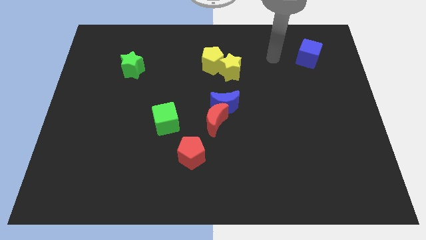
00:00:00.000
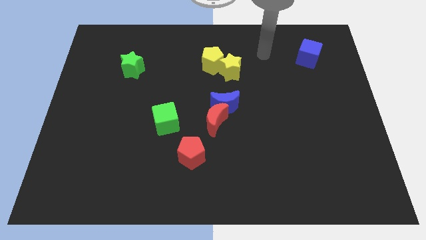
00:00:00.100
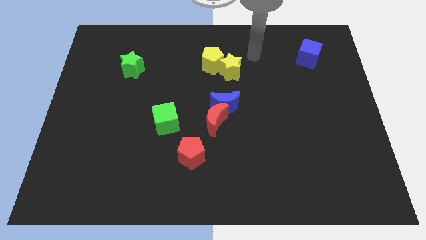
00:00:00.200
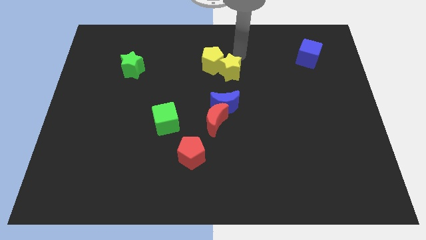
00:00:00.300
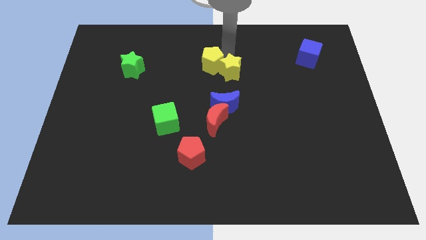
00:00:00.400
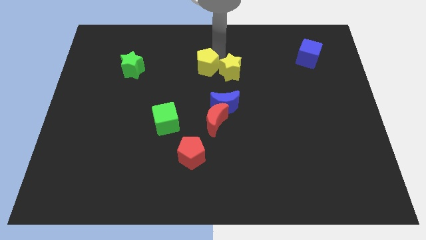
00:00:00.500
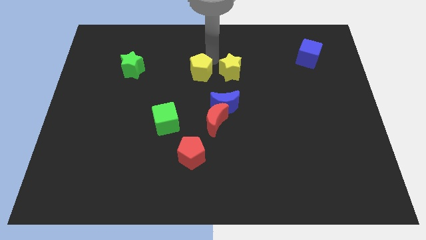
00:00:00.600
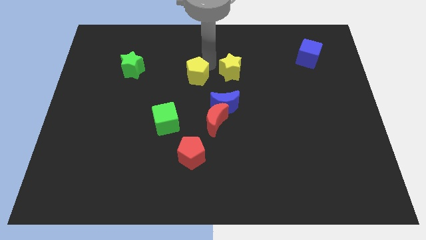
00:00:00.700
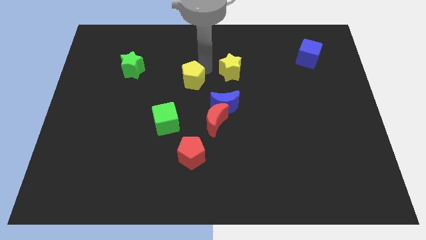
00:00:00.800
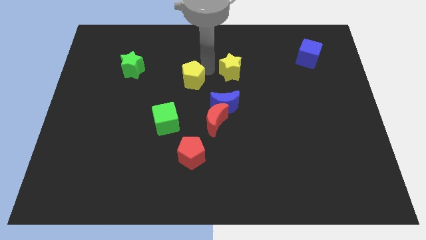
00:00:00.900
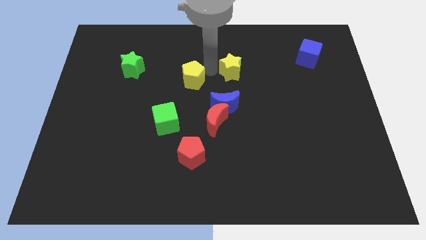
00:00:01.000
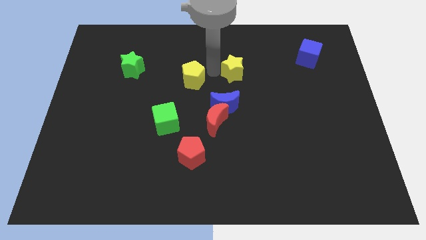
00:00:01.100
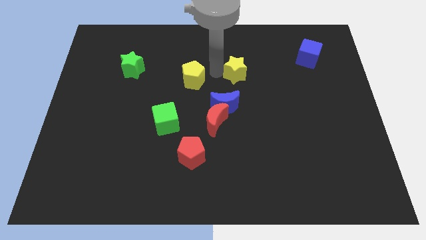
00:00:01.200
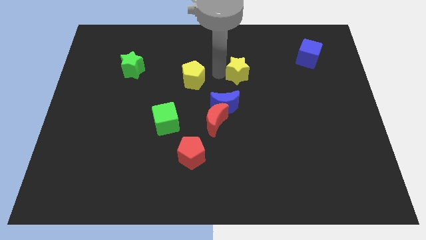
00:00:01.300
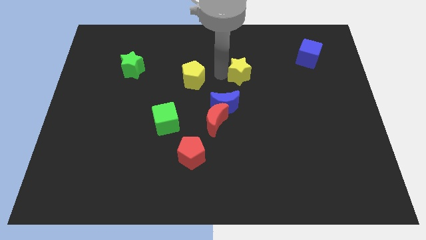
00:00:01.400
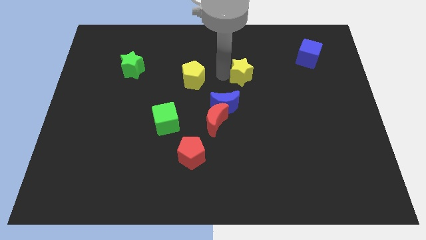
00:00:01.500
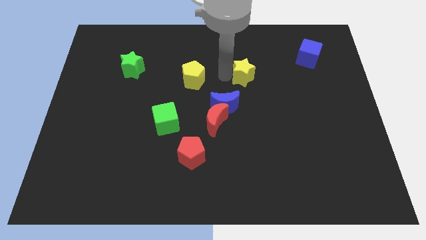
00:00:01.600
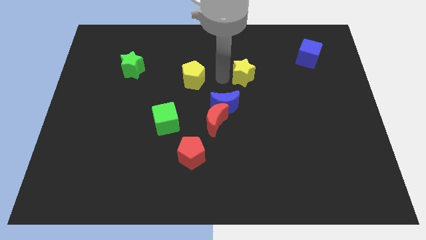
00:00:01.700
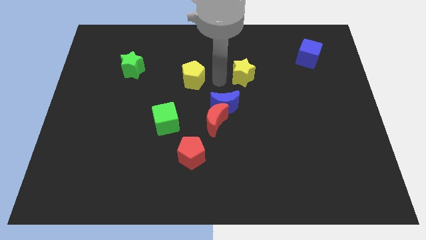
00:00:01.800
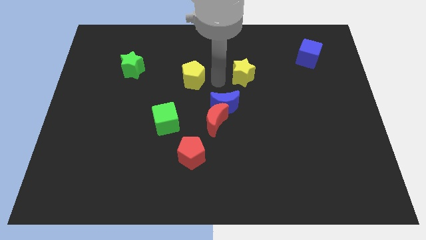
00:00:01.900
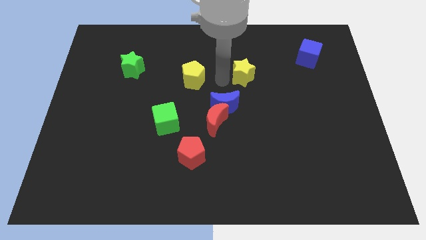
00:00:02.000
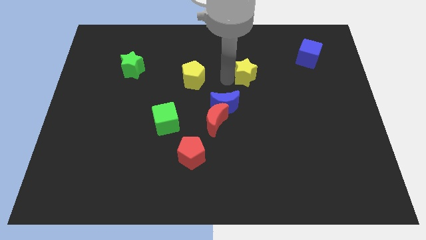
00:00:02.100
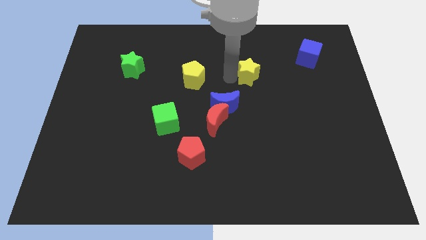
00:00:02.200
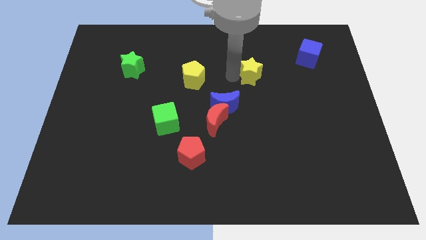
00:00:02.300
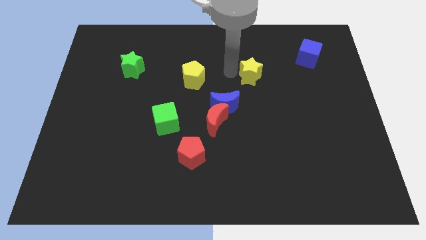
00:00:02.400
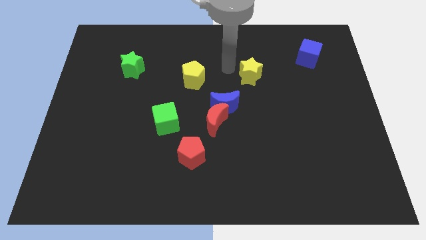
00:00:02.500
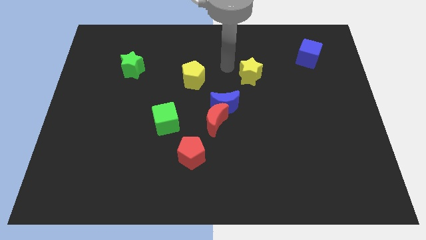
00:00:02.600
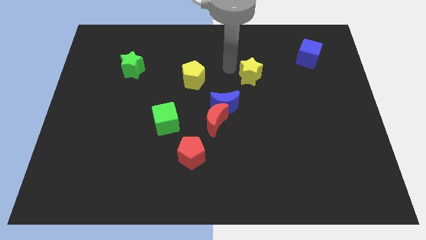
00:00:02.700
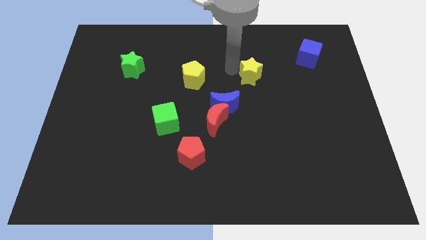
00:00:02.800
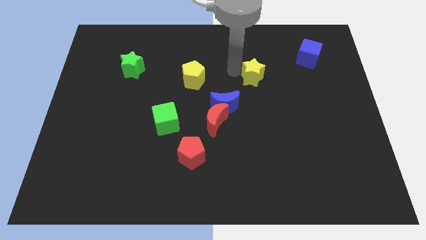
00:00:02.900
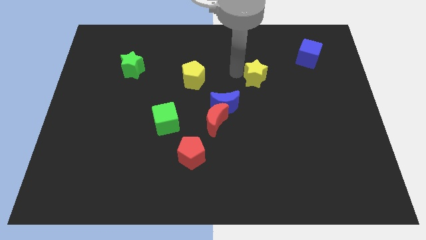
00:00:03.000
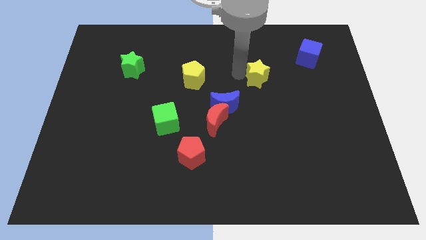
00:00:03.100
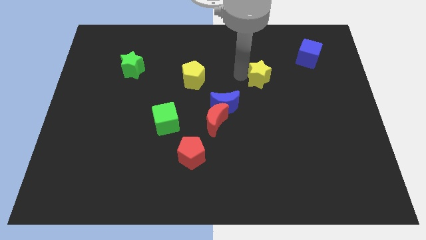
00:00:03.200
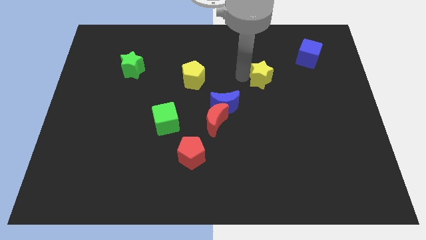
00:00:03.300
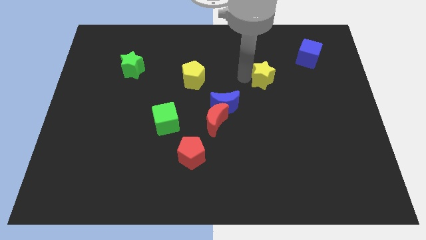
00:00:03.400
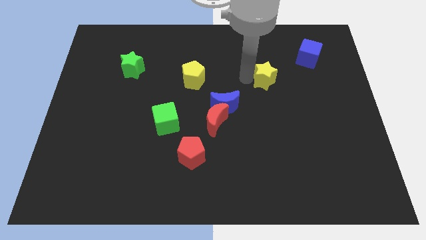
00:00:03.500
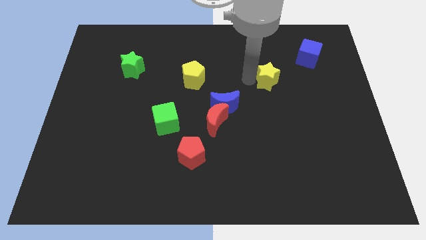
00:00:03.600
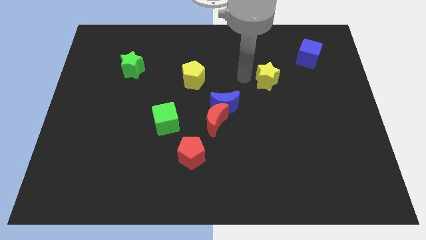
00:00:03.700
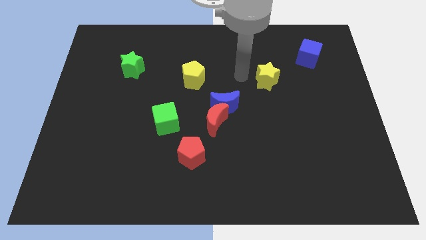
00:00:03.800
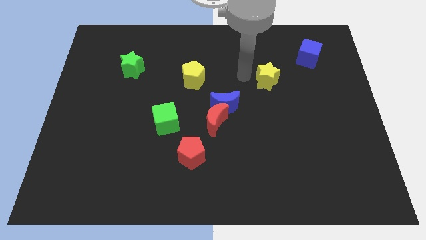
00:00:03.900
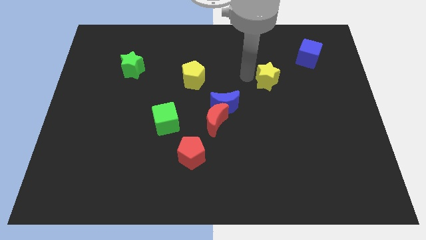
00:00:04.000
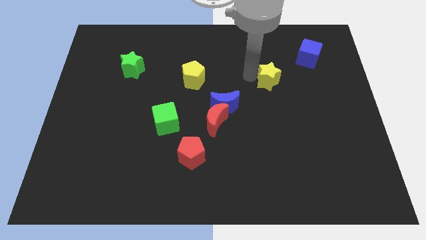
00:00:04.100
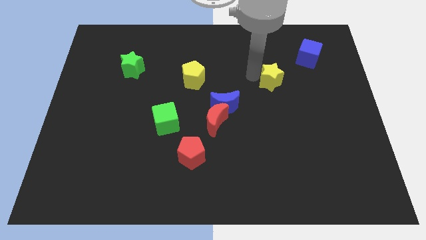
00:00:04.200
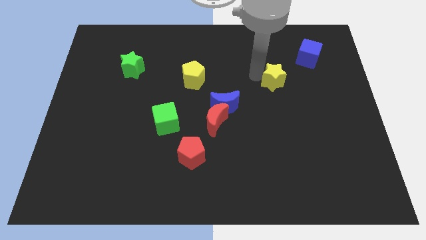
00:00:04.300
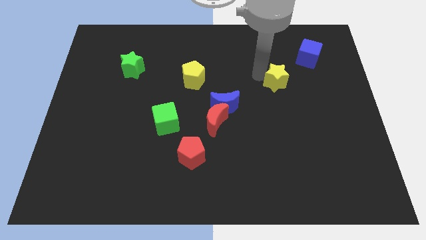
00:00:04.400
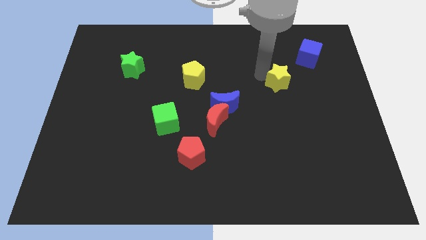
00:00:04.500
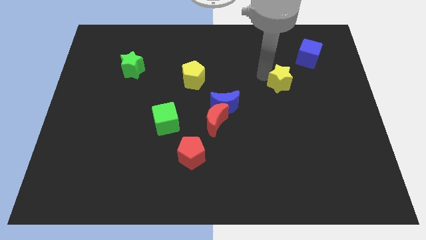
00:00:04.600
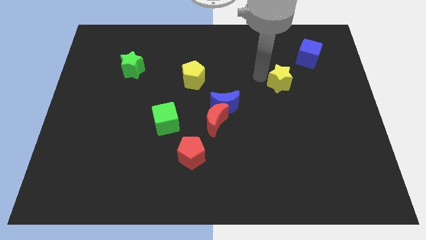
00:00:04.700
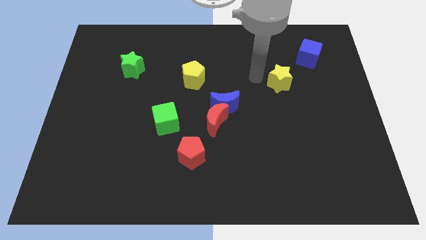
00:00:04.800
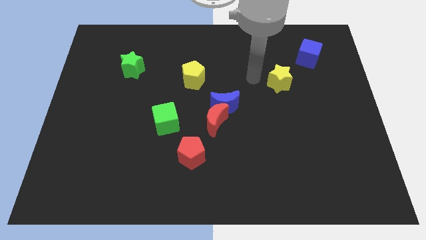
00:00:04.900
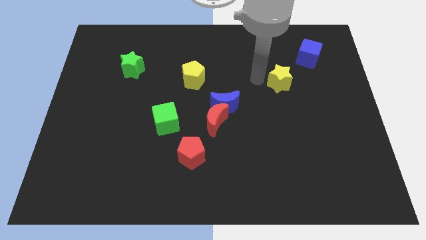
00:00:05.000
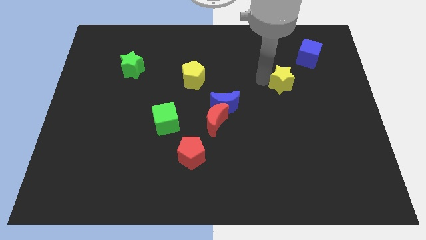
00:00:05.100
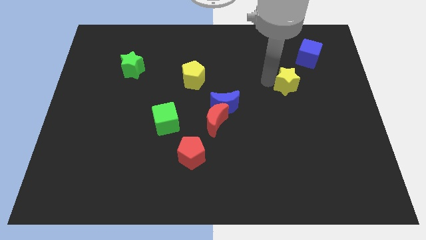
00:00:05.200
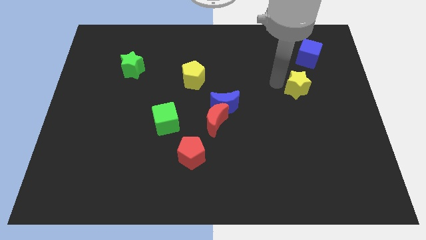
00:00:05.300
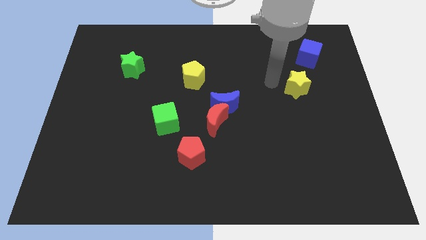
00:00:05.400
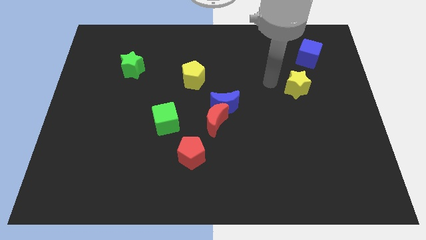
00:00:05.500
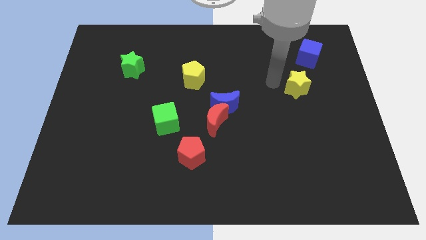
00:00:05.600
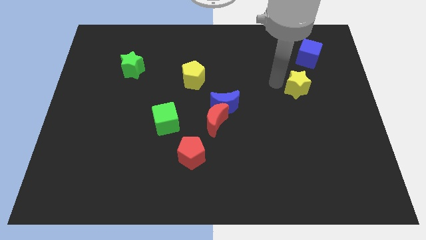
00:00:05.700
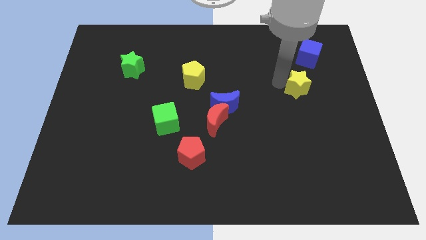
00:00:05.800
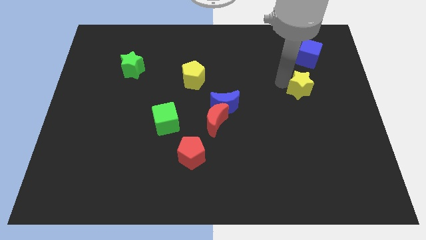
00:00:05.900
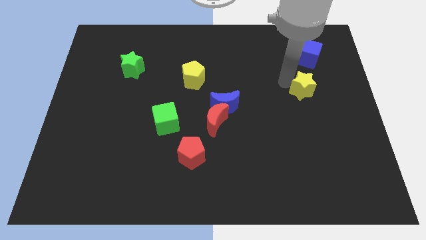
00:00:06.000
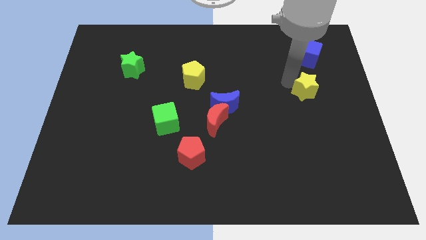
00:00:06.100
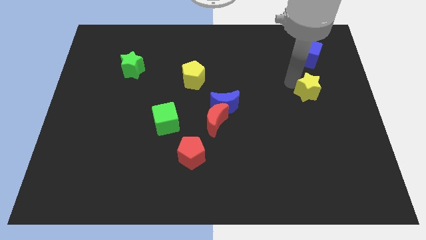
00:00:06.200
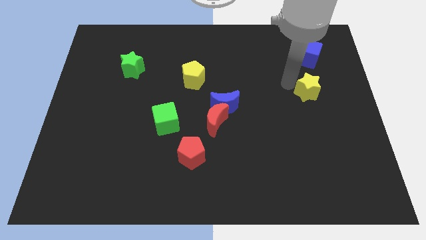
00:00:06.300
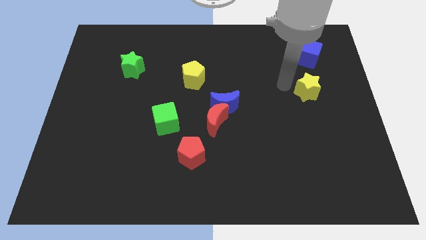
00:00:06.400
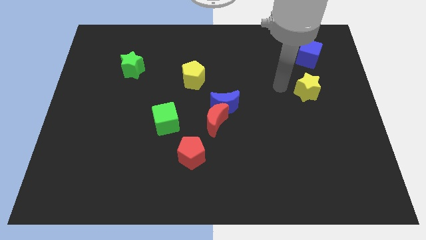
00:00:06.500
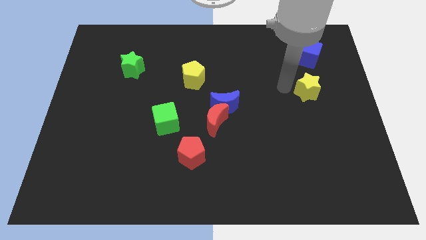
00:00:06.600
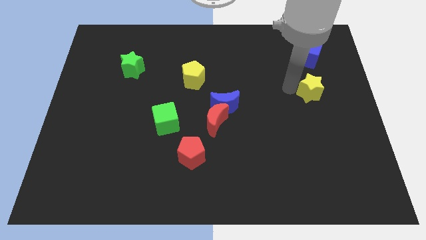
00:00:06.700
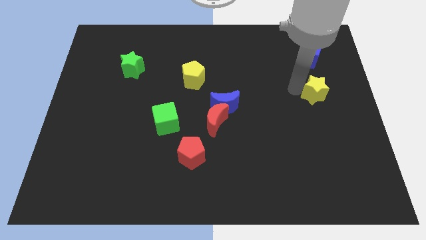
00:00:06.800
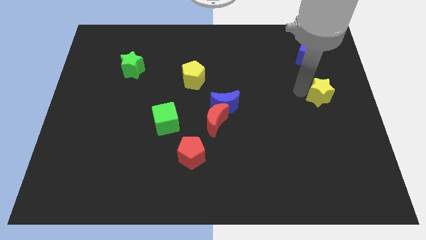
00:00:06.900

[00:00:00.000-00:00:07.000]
move the yellow star to the right side of the board
